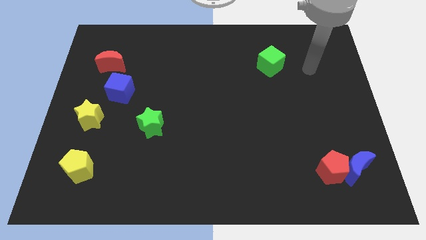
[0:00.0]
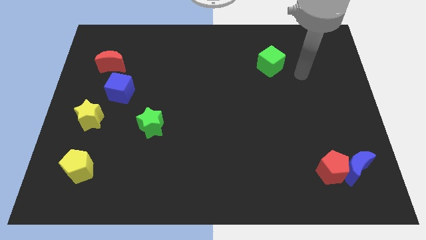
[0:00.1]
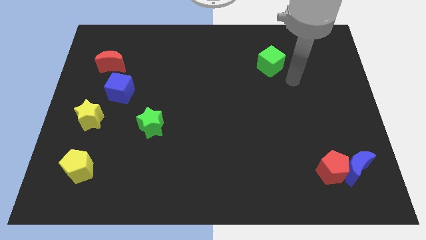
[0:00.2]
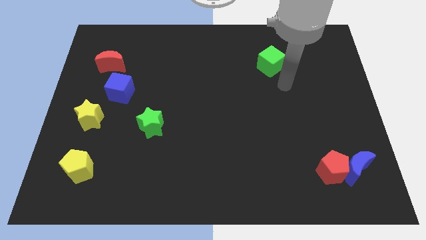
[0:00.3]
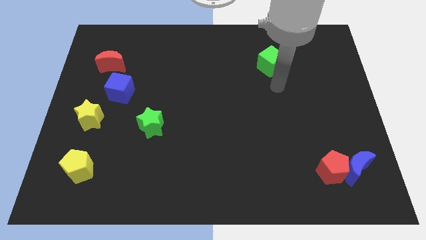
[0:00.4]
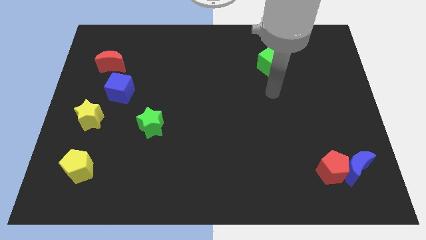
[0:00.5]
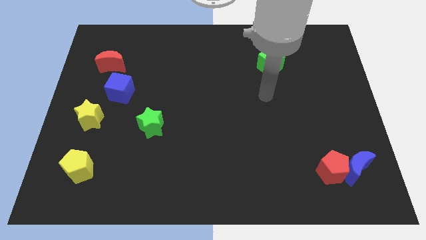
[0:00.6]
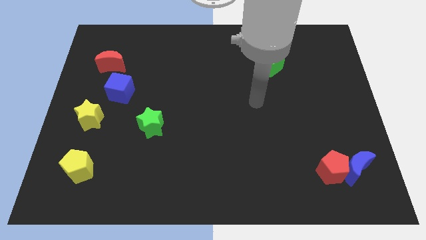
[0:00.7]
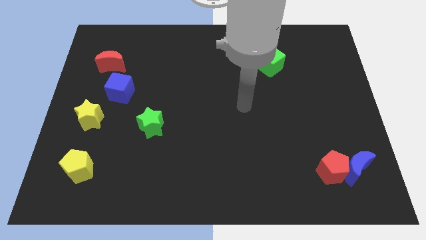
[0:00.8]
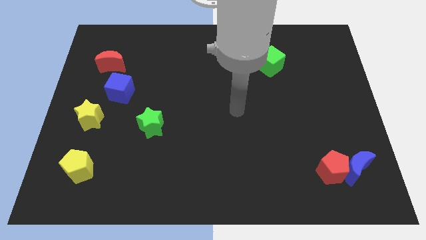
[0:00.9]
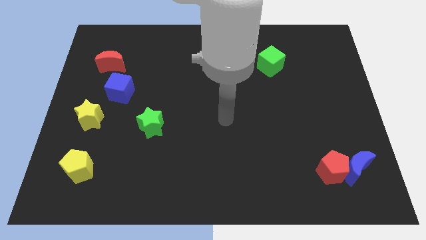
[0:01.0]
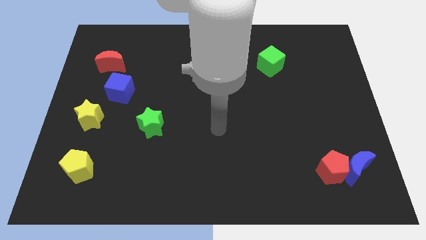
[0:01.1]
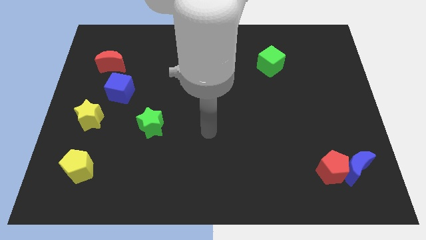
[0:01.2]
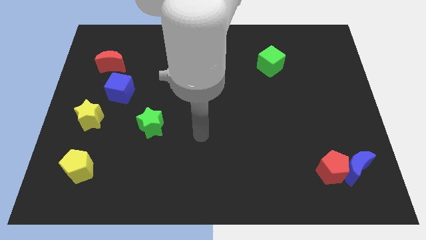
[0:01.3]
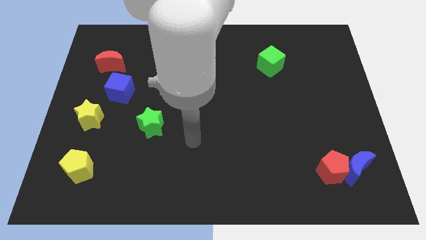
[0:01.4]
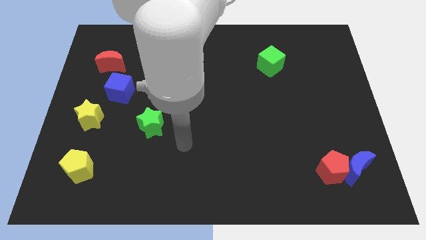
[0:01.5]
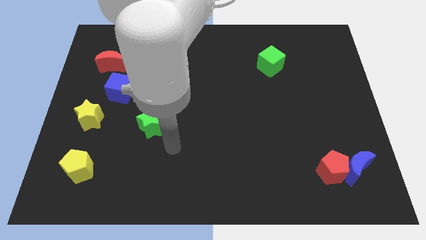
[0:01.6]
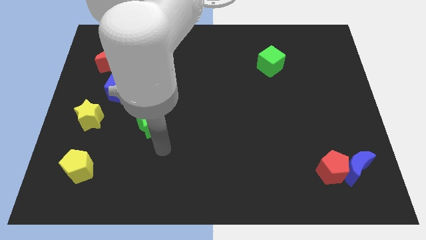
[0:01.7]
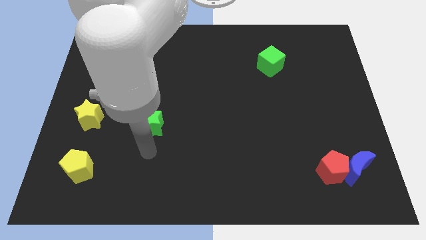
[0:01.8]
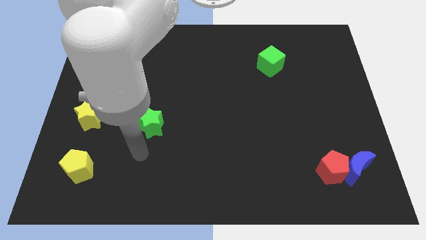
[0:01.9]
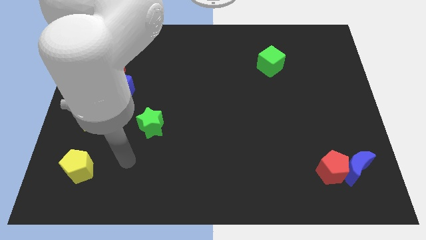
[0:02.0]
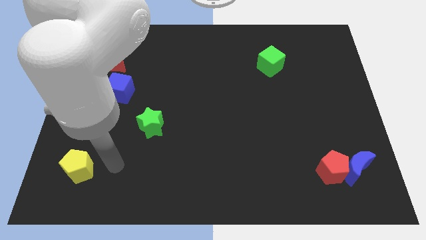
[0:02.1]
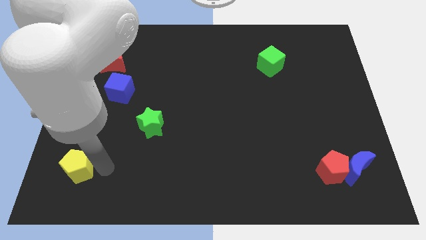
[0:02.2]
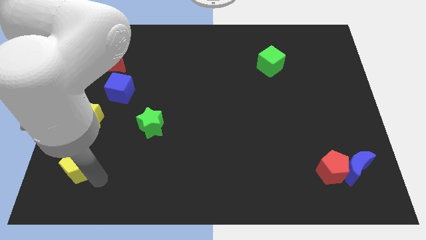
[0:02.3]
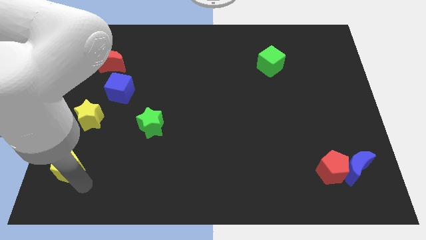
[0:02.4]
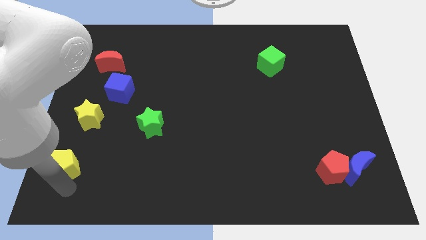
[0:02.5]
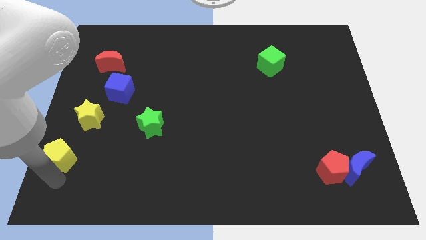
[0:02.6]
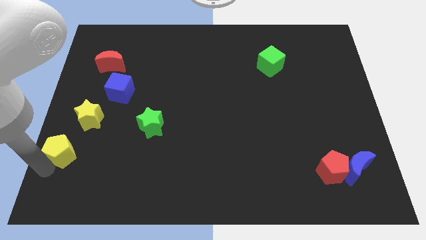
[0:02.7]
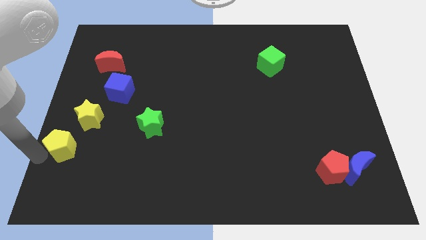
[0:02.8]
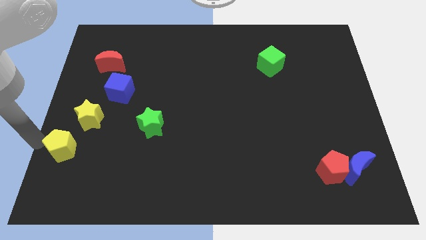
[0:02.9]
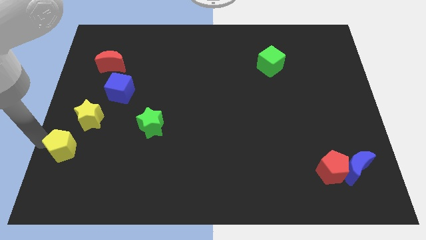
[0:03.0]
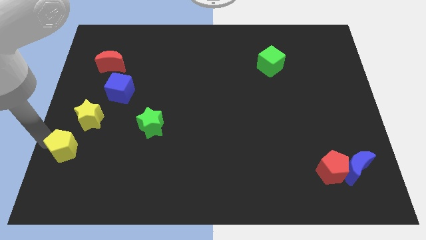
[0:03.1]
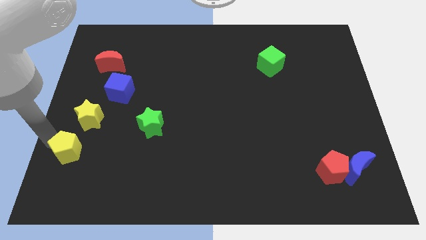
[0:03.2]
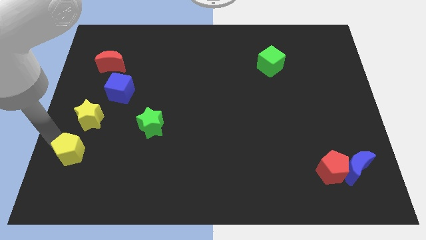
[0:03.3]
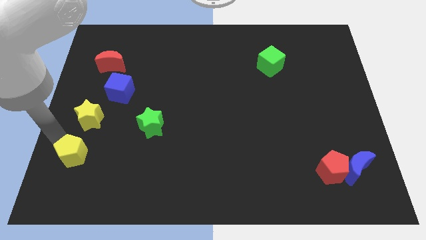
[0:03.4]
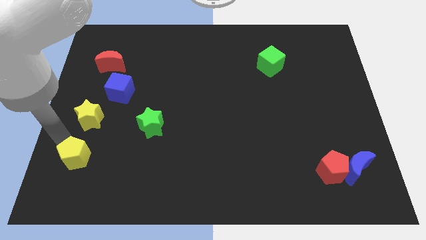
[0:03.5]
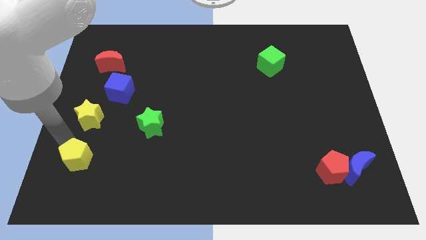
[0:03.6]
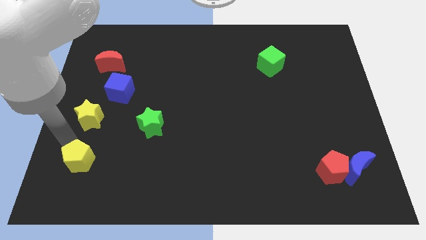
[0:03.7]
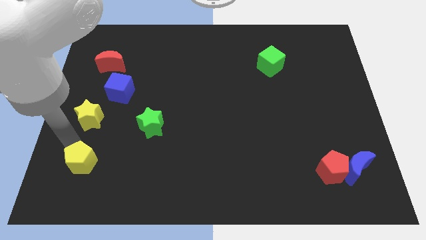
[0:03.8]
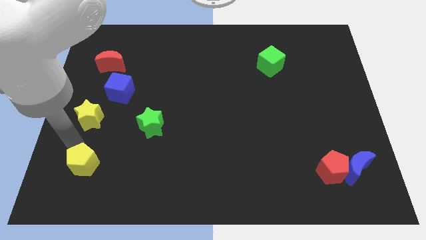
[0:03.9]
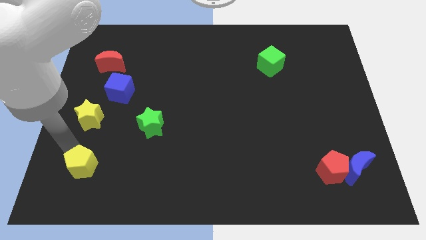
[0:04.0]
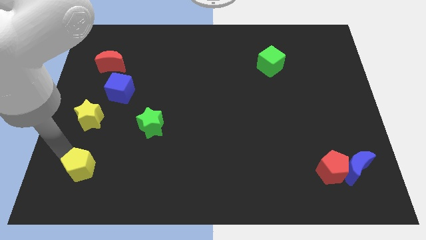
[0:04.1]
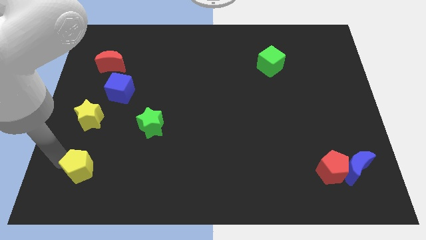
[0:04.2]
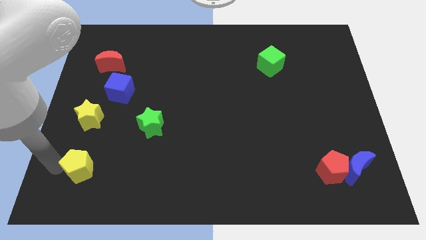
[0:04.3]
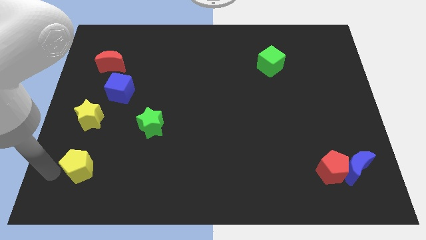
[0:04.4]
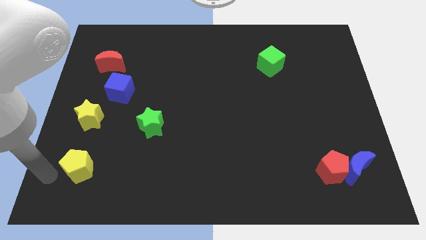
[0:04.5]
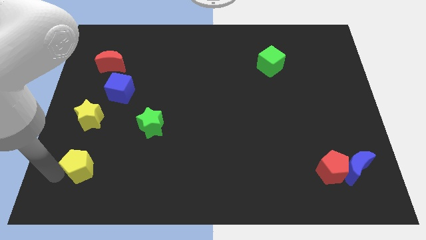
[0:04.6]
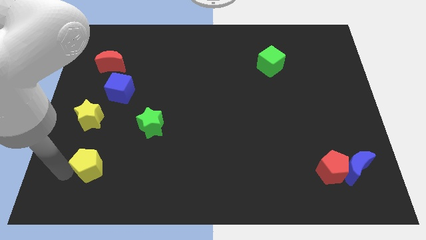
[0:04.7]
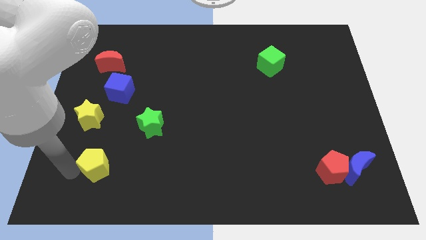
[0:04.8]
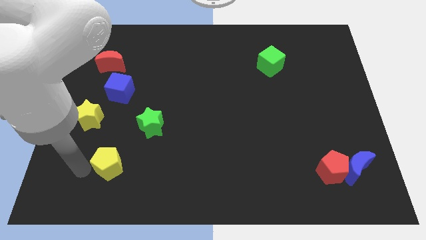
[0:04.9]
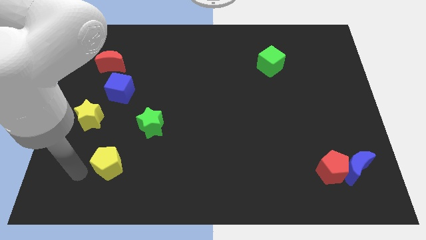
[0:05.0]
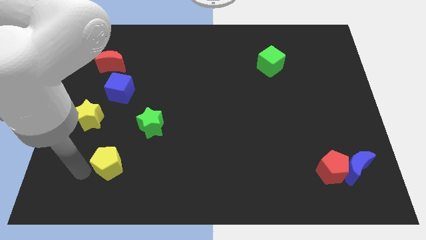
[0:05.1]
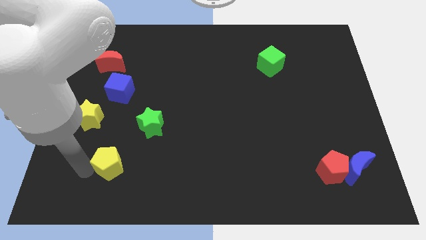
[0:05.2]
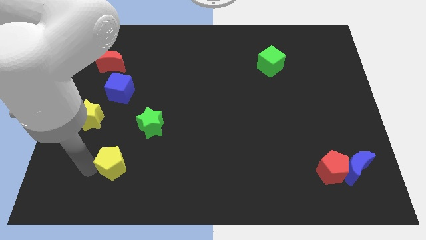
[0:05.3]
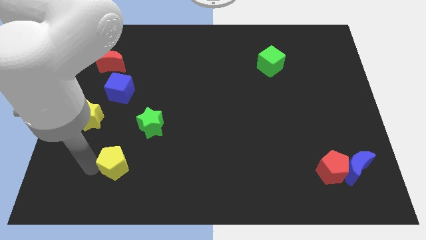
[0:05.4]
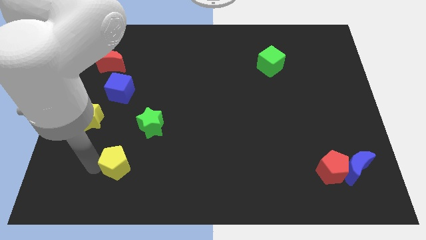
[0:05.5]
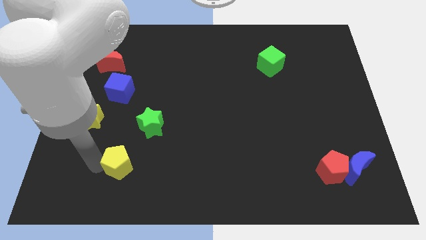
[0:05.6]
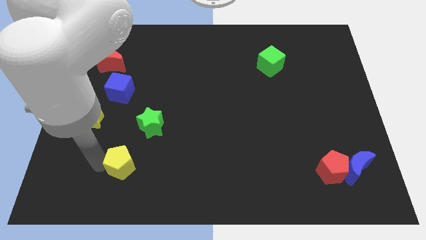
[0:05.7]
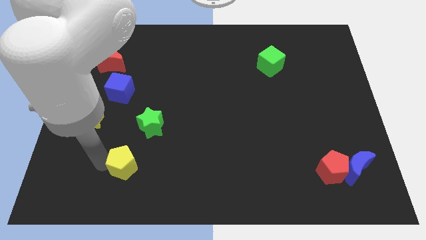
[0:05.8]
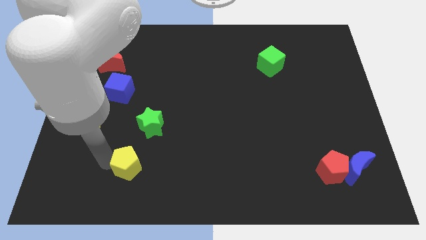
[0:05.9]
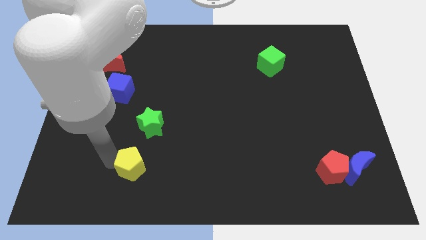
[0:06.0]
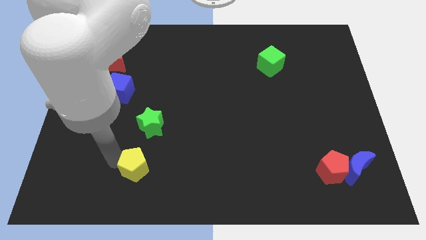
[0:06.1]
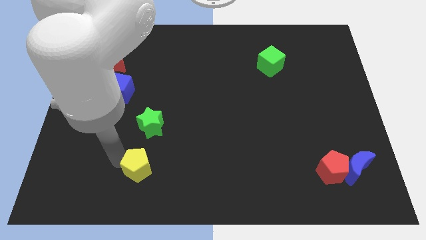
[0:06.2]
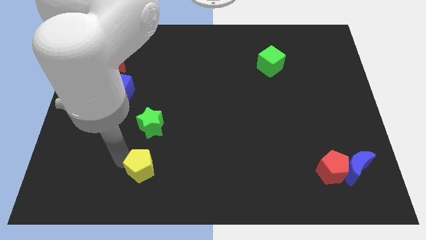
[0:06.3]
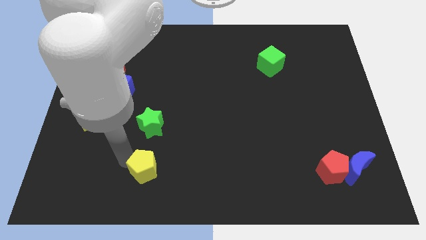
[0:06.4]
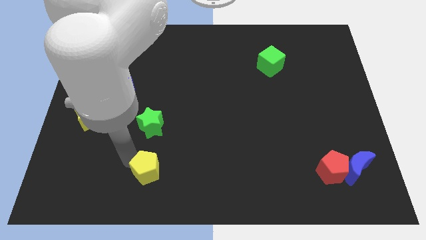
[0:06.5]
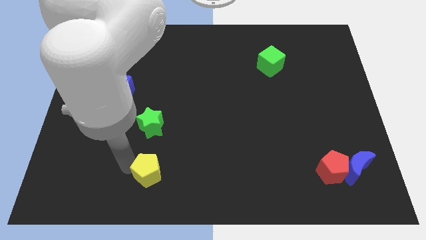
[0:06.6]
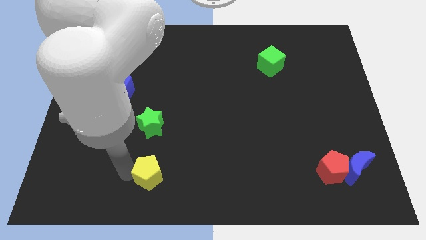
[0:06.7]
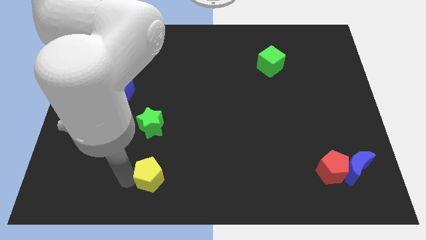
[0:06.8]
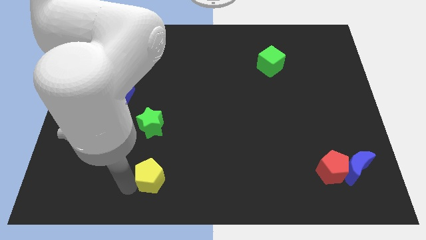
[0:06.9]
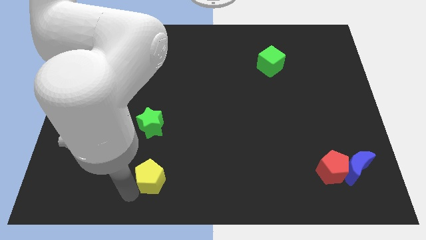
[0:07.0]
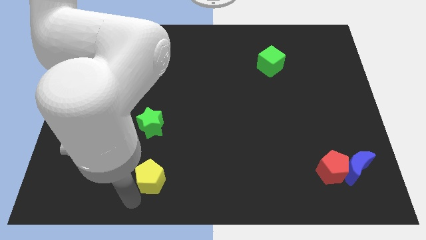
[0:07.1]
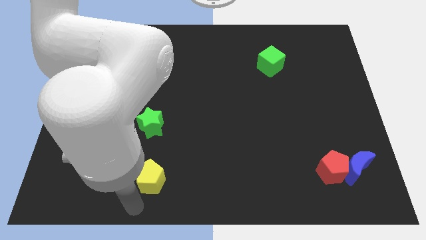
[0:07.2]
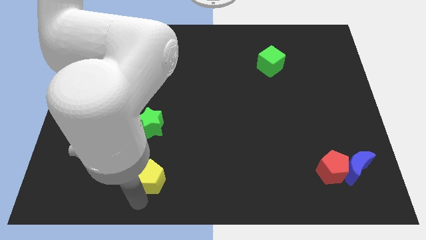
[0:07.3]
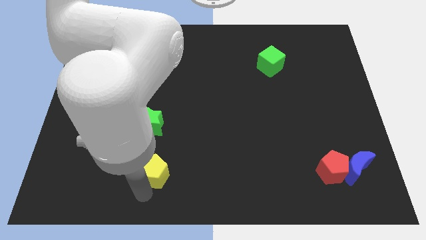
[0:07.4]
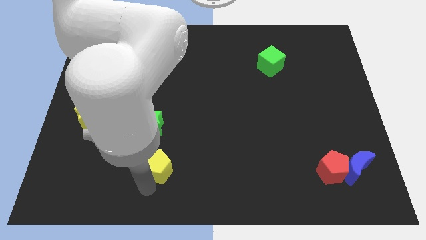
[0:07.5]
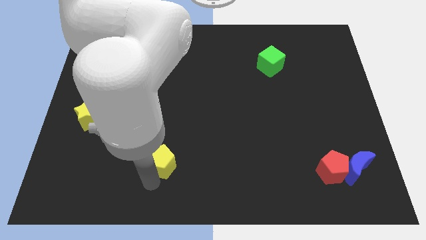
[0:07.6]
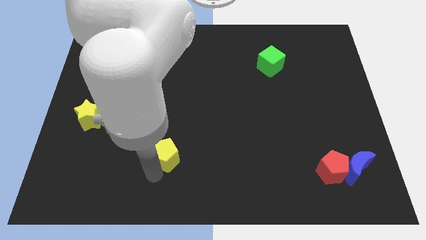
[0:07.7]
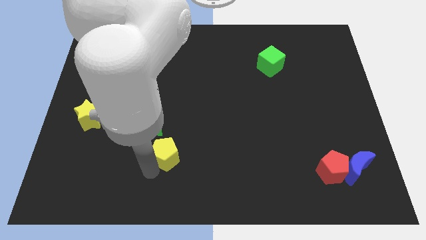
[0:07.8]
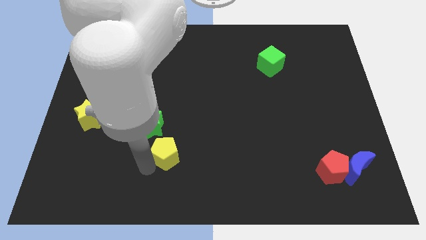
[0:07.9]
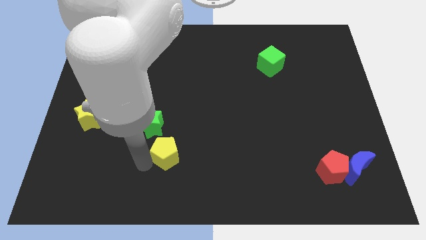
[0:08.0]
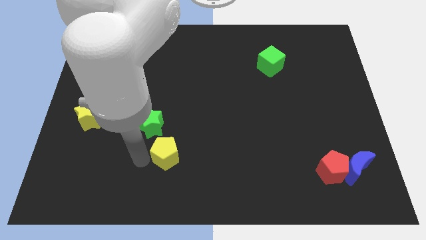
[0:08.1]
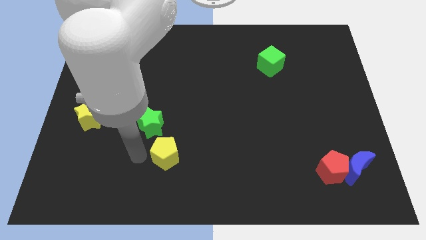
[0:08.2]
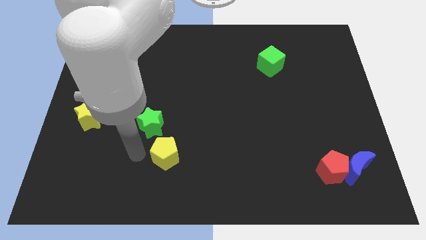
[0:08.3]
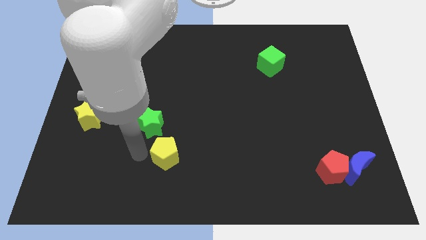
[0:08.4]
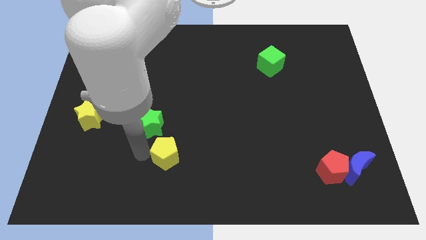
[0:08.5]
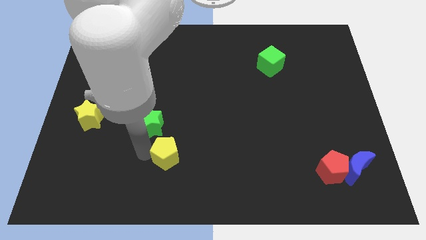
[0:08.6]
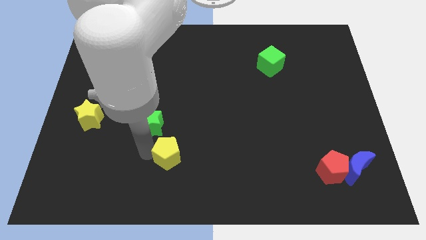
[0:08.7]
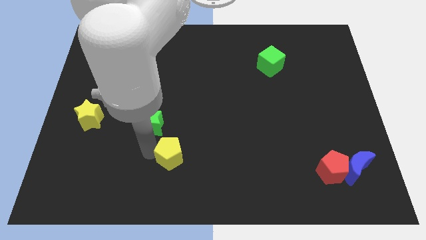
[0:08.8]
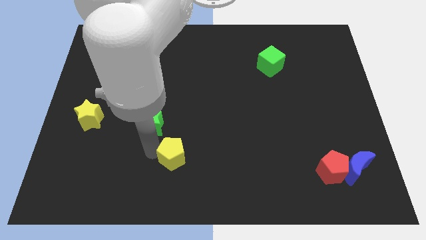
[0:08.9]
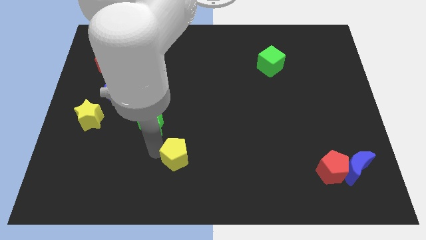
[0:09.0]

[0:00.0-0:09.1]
push the yellow pentagon right
